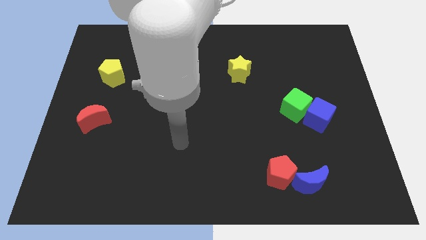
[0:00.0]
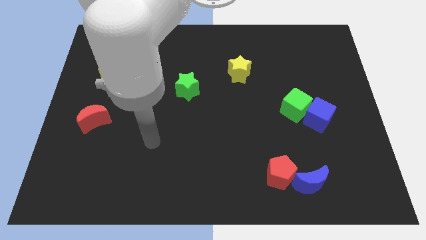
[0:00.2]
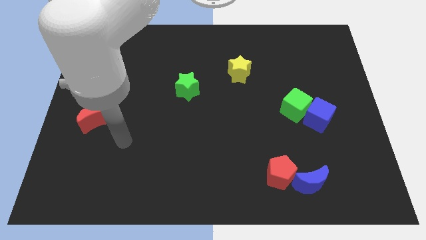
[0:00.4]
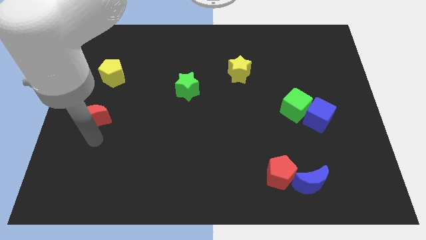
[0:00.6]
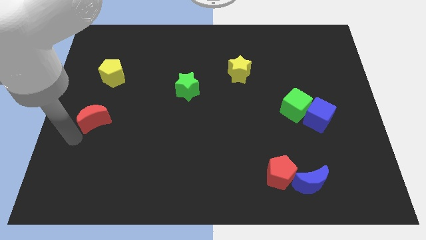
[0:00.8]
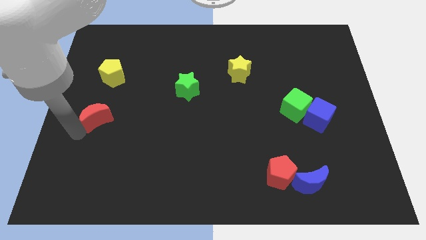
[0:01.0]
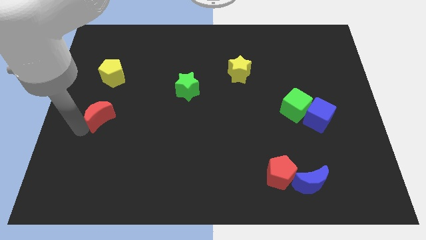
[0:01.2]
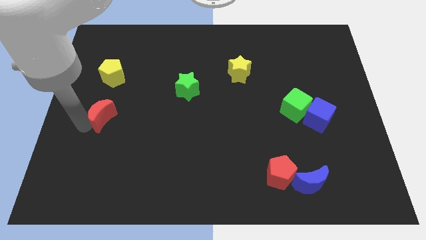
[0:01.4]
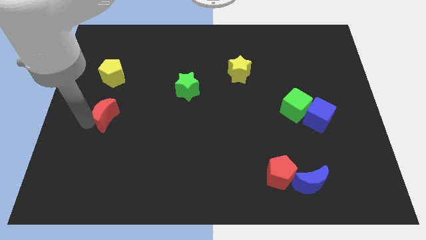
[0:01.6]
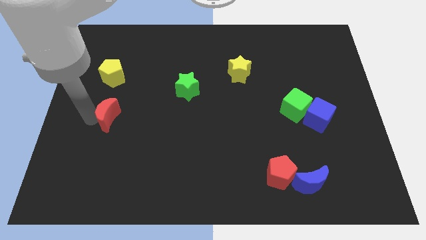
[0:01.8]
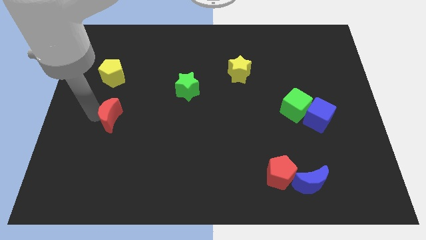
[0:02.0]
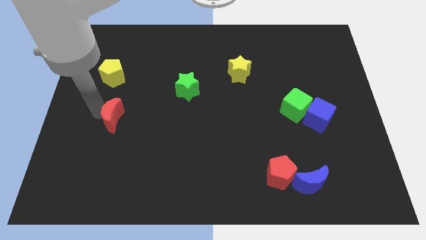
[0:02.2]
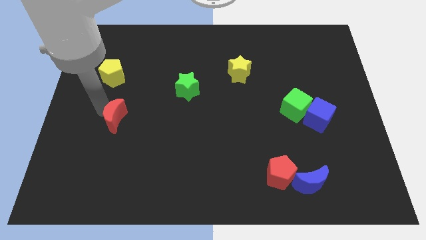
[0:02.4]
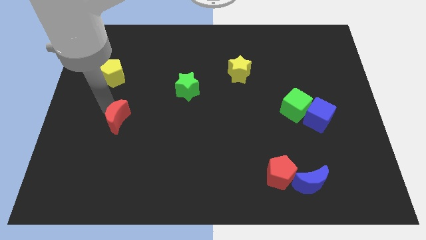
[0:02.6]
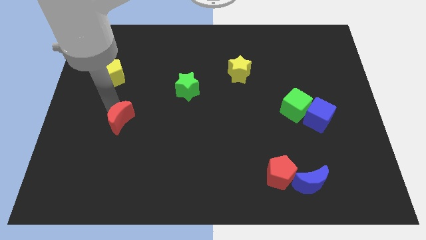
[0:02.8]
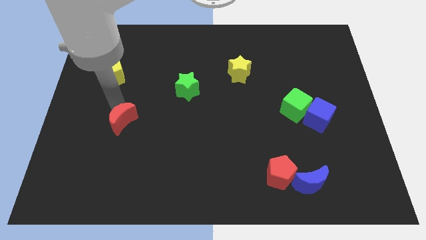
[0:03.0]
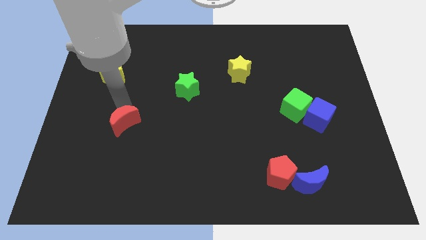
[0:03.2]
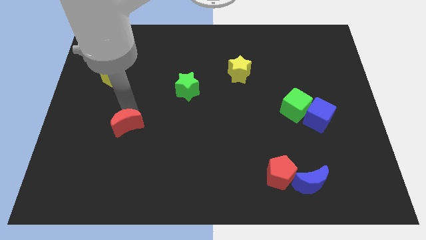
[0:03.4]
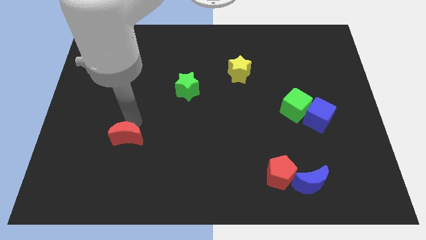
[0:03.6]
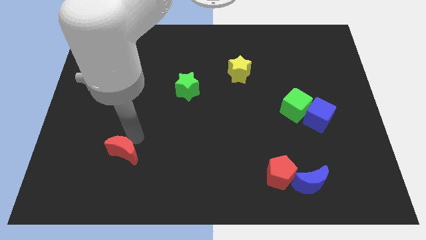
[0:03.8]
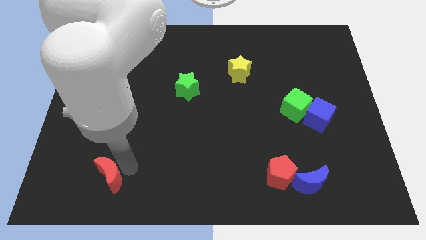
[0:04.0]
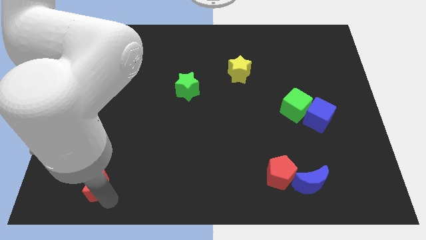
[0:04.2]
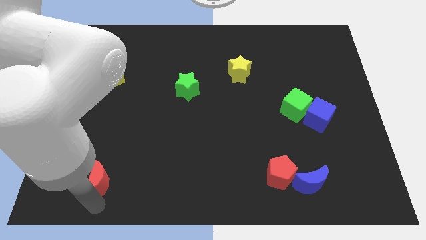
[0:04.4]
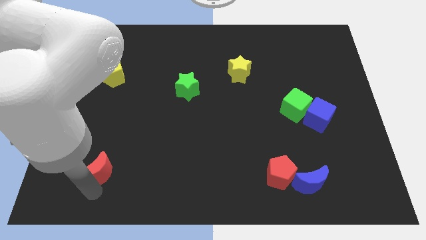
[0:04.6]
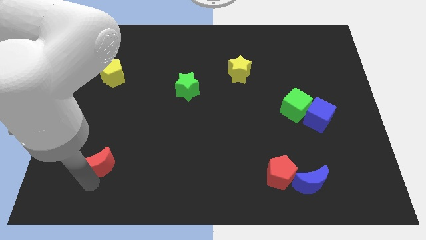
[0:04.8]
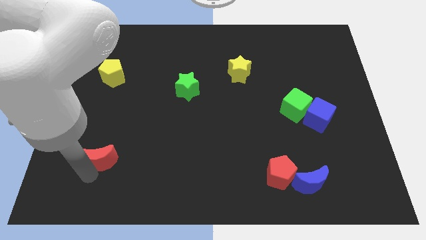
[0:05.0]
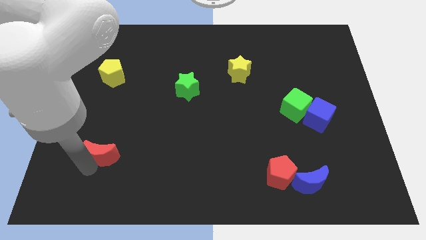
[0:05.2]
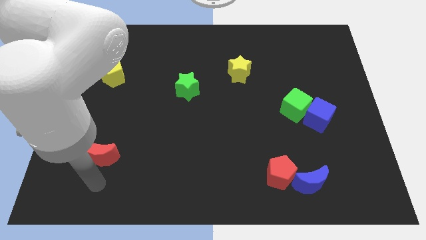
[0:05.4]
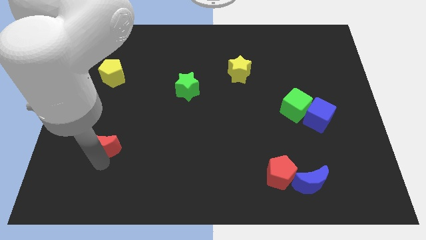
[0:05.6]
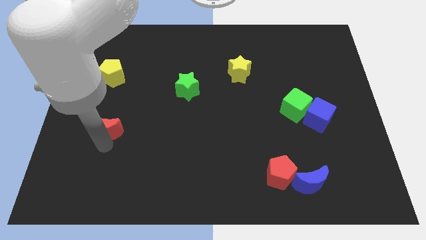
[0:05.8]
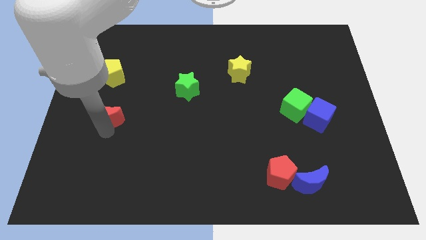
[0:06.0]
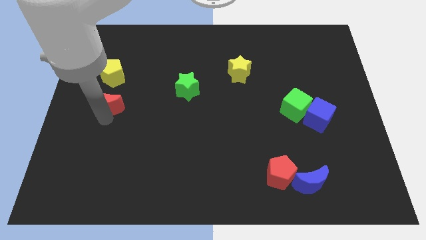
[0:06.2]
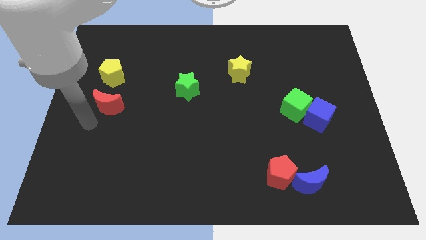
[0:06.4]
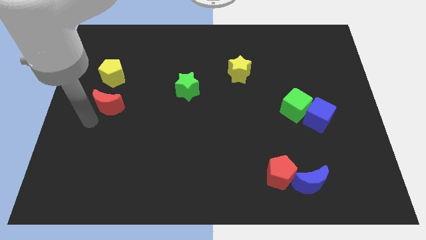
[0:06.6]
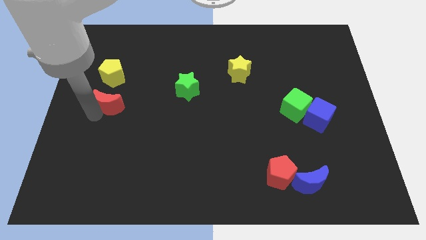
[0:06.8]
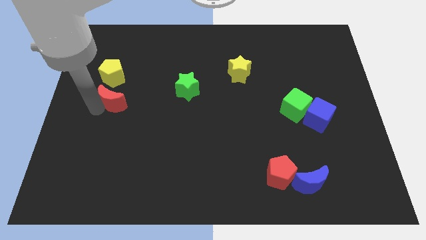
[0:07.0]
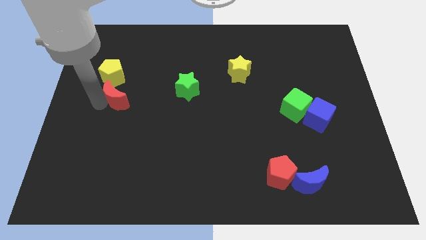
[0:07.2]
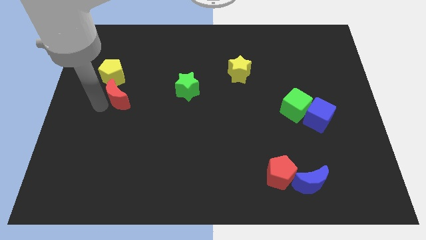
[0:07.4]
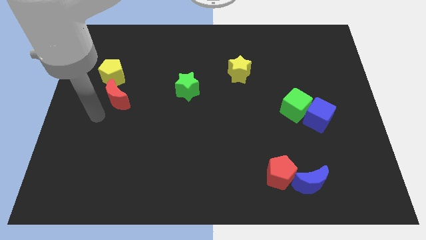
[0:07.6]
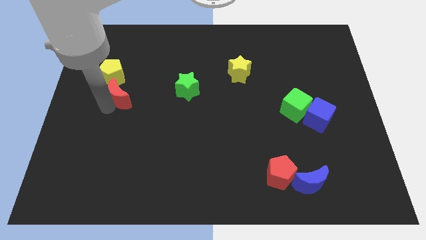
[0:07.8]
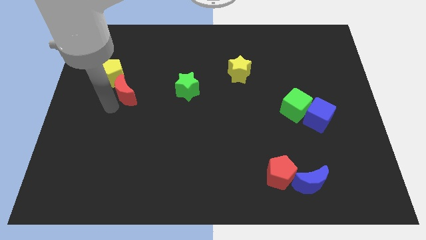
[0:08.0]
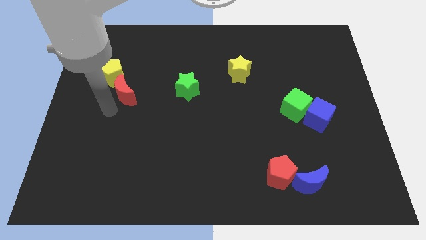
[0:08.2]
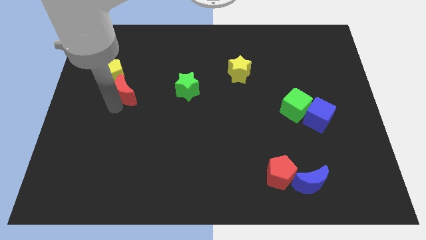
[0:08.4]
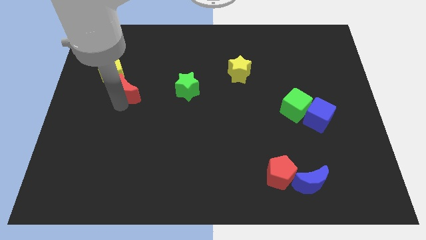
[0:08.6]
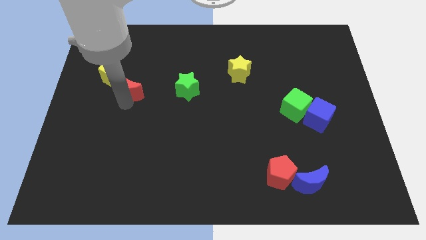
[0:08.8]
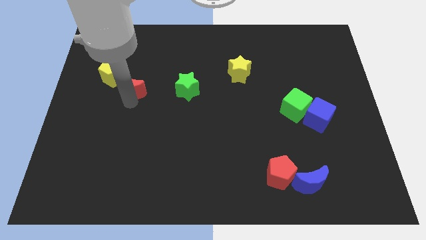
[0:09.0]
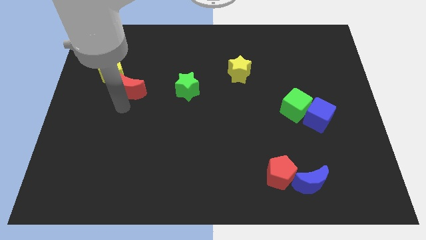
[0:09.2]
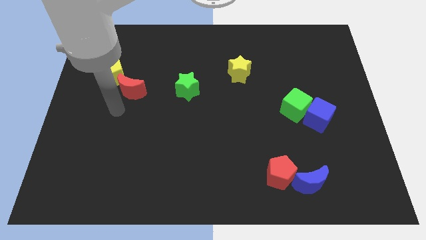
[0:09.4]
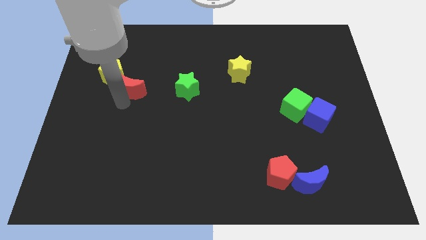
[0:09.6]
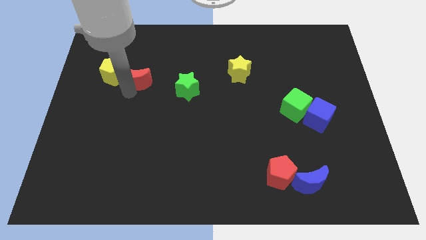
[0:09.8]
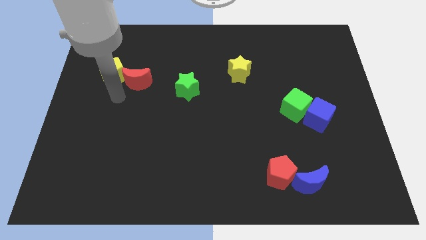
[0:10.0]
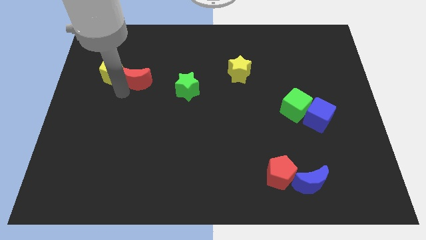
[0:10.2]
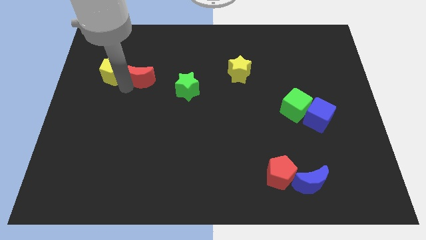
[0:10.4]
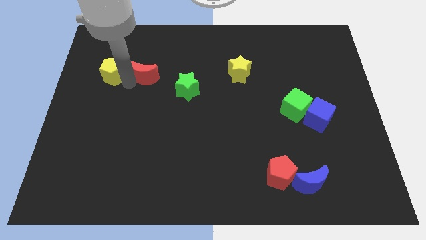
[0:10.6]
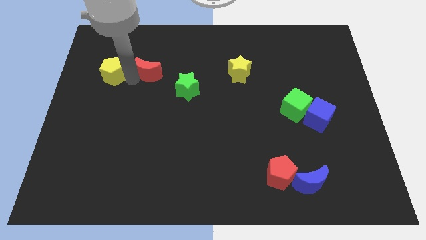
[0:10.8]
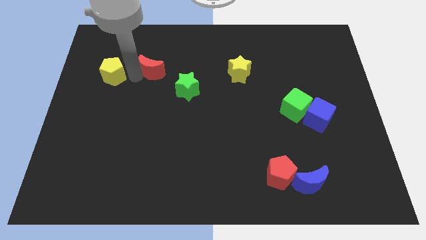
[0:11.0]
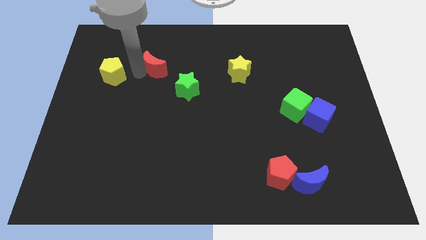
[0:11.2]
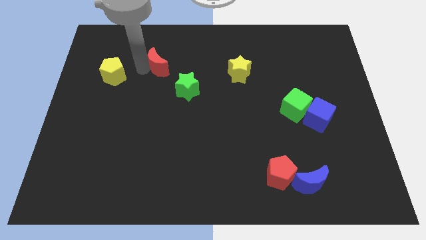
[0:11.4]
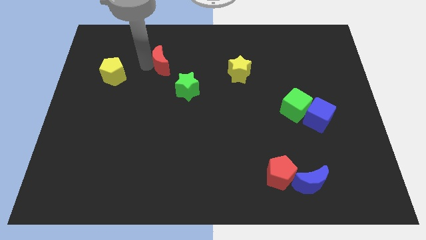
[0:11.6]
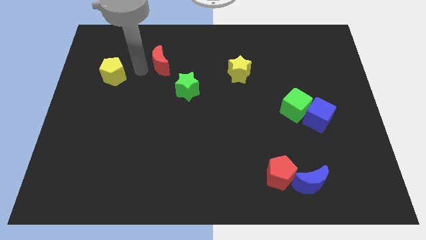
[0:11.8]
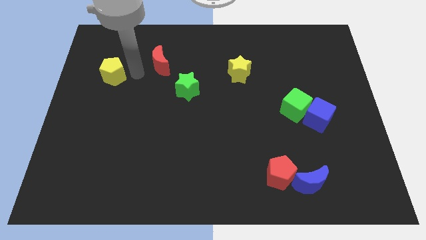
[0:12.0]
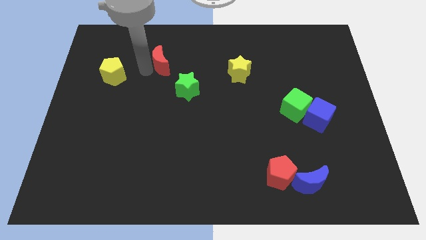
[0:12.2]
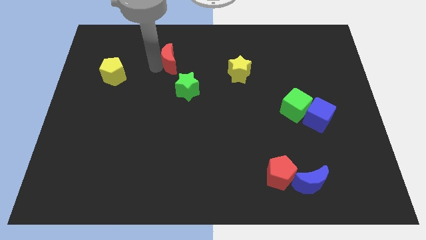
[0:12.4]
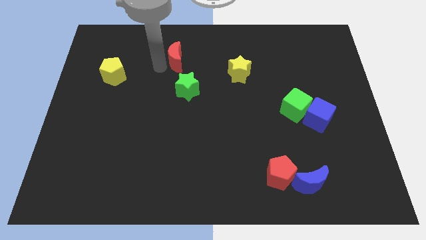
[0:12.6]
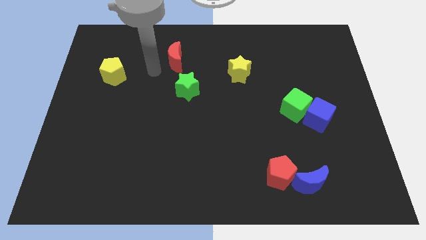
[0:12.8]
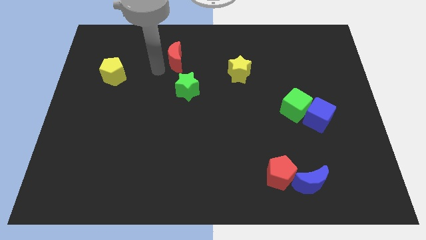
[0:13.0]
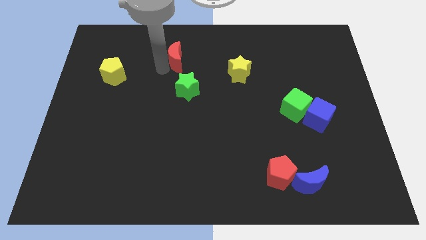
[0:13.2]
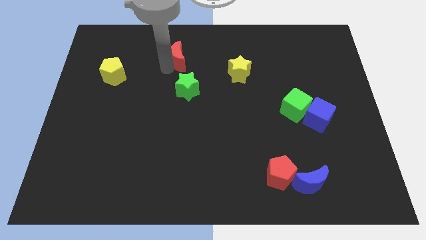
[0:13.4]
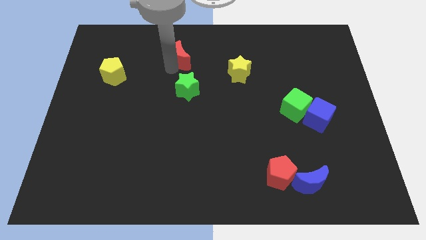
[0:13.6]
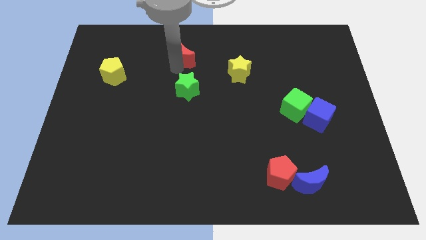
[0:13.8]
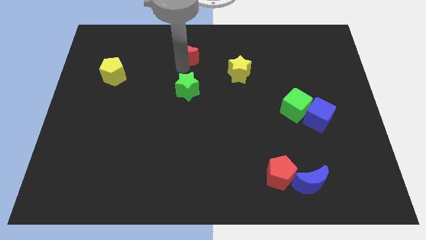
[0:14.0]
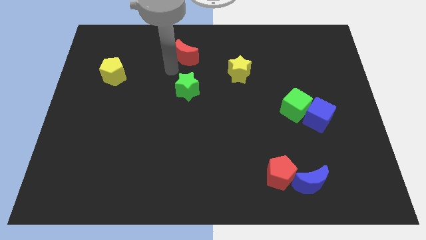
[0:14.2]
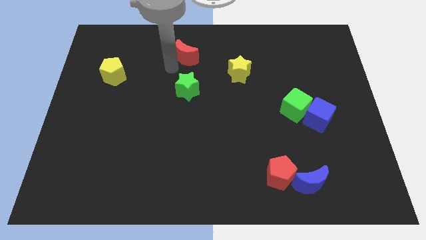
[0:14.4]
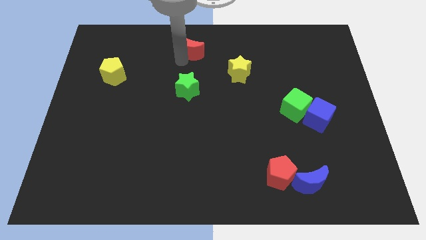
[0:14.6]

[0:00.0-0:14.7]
slide the red moon to the top
